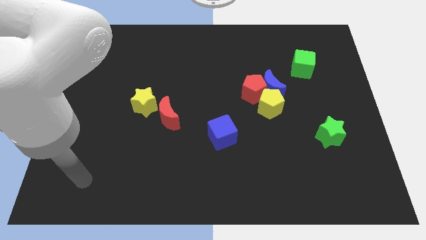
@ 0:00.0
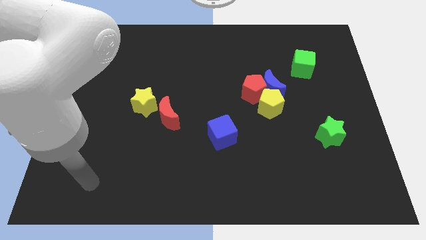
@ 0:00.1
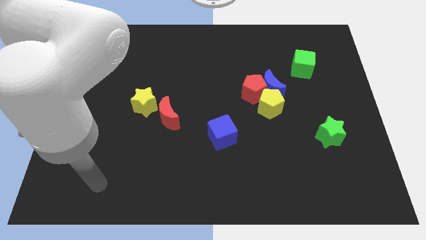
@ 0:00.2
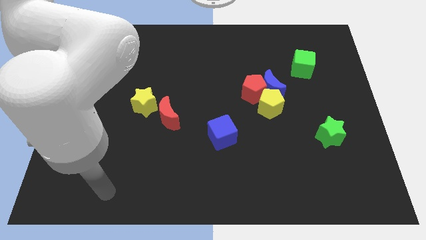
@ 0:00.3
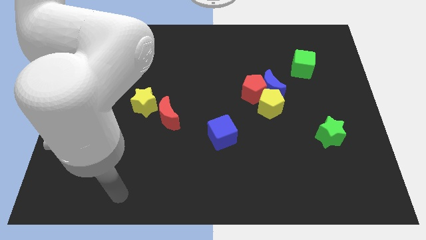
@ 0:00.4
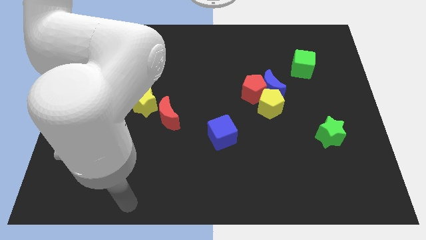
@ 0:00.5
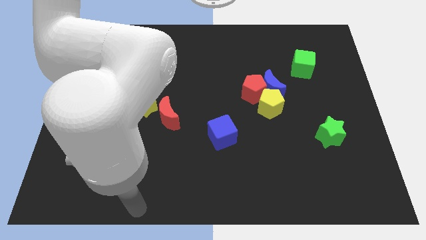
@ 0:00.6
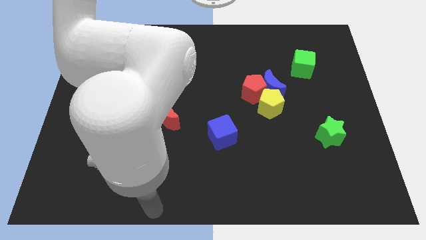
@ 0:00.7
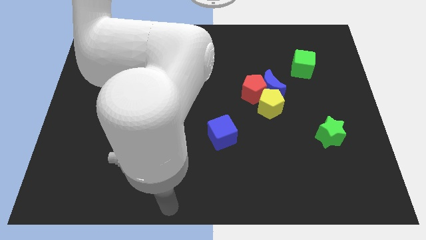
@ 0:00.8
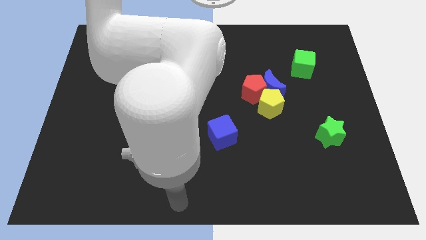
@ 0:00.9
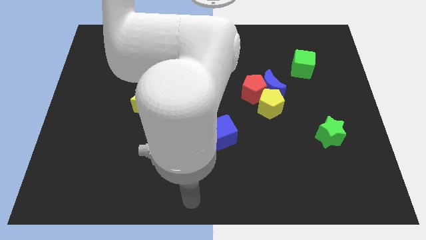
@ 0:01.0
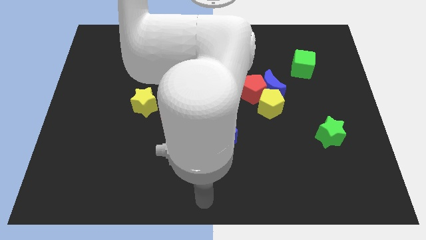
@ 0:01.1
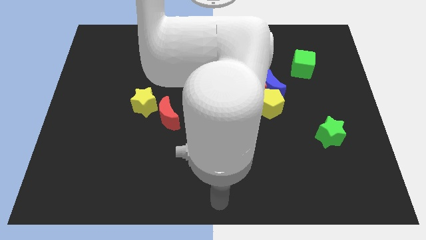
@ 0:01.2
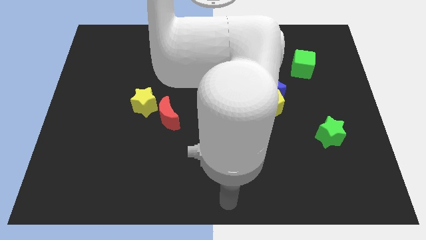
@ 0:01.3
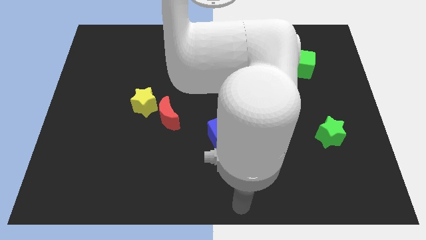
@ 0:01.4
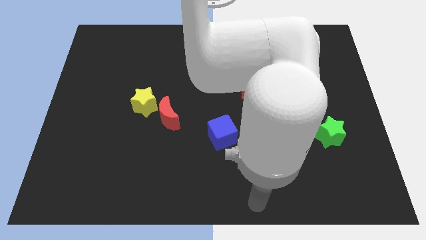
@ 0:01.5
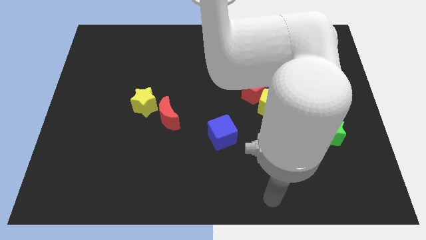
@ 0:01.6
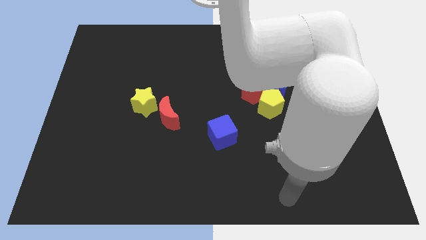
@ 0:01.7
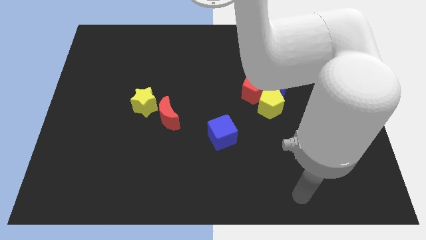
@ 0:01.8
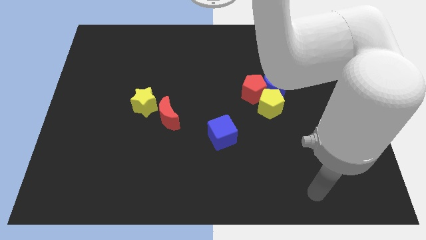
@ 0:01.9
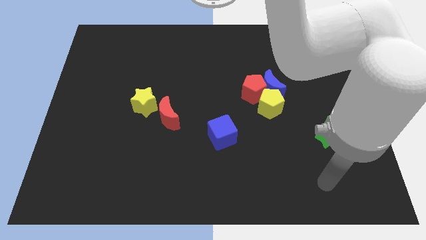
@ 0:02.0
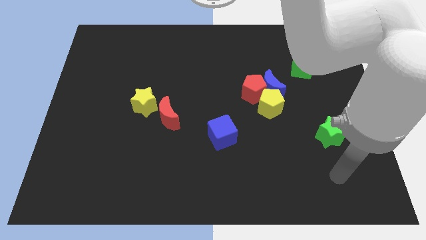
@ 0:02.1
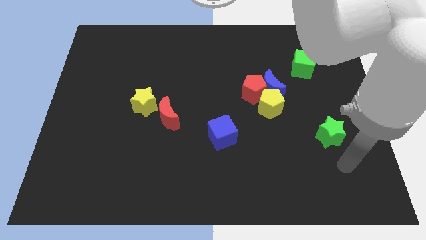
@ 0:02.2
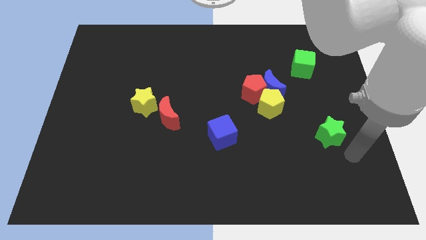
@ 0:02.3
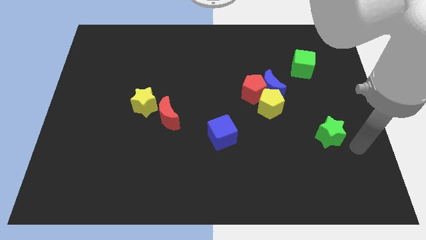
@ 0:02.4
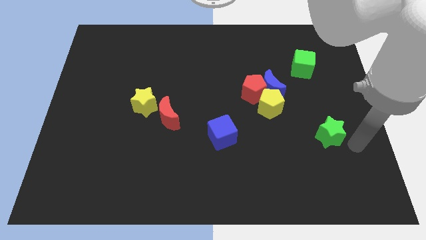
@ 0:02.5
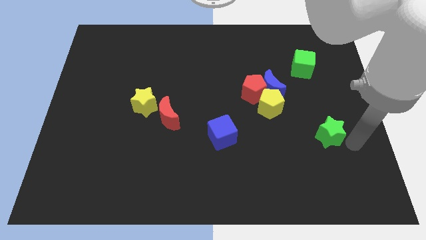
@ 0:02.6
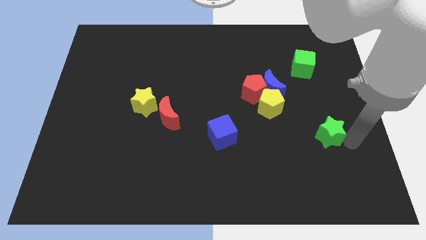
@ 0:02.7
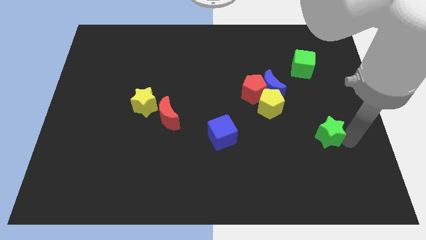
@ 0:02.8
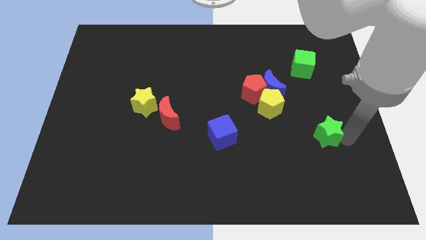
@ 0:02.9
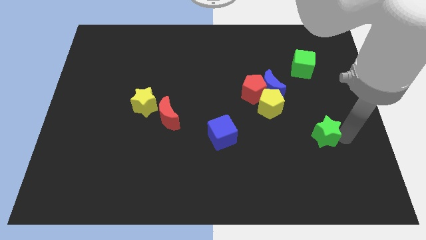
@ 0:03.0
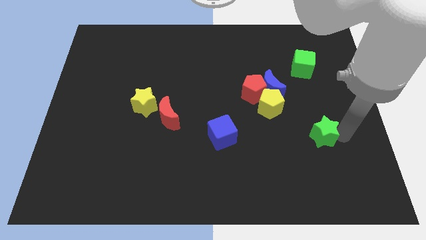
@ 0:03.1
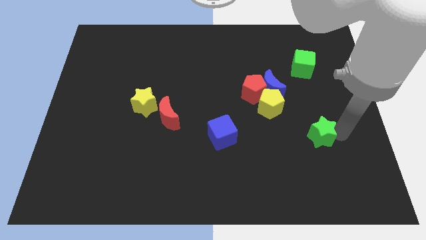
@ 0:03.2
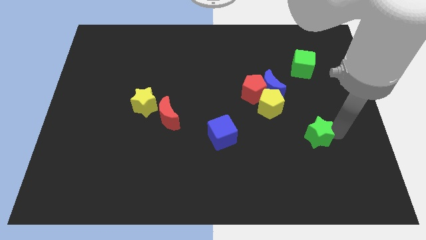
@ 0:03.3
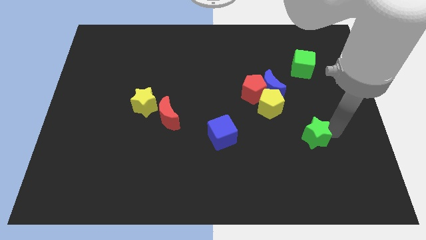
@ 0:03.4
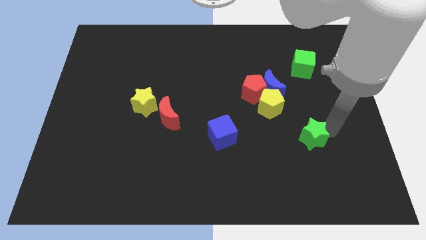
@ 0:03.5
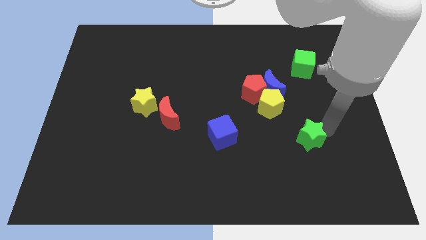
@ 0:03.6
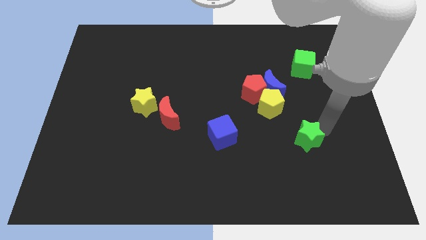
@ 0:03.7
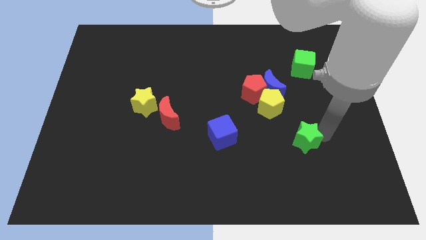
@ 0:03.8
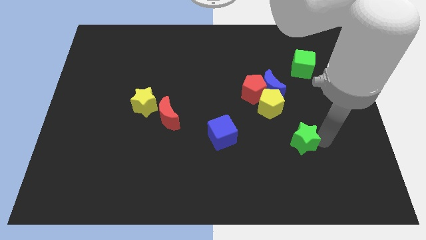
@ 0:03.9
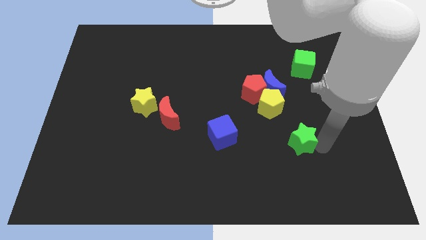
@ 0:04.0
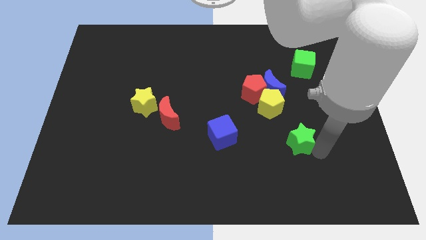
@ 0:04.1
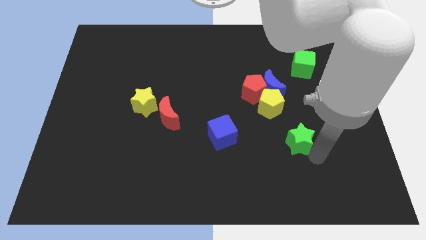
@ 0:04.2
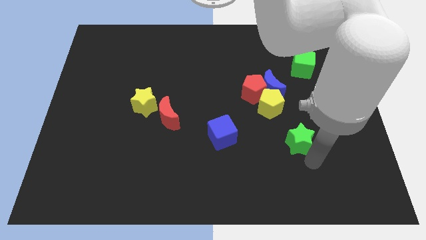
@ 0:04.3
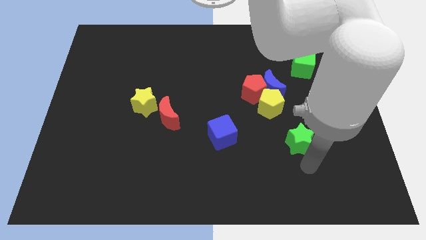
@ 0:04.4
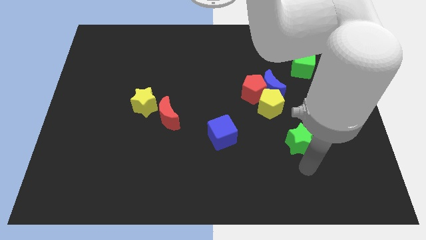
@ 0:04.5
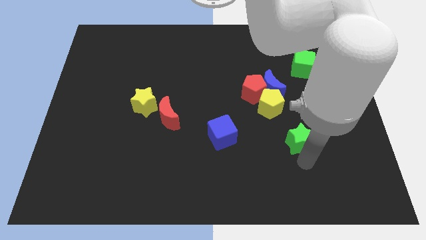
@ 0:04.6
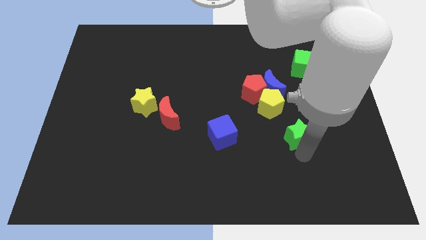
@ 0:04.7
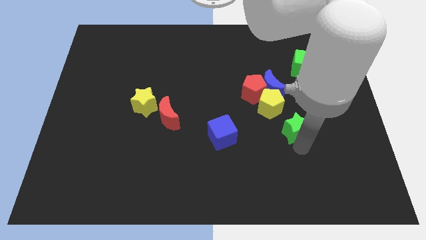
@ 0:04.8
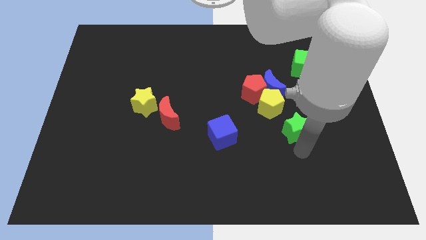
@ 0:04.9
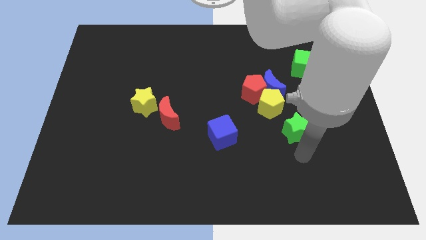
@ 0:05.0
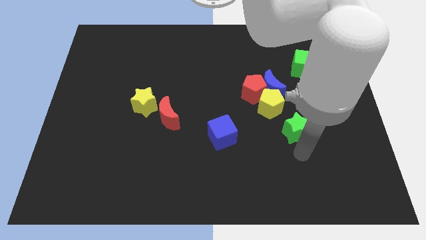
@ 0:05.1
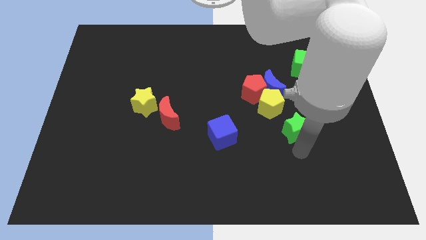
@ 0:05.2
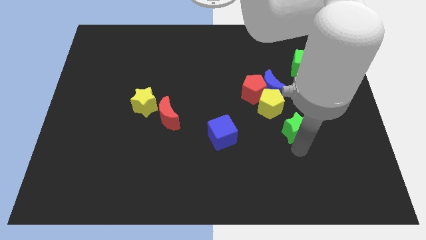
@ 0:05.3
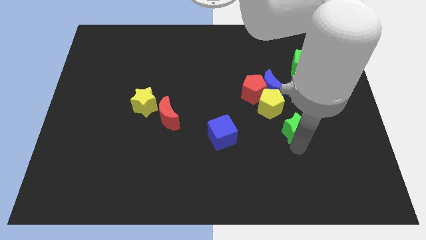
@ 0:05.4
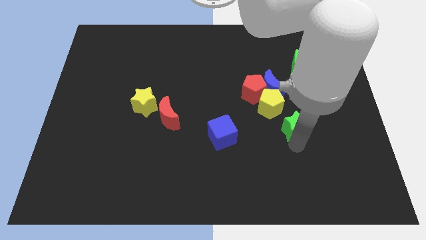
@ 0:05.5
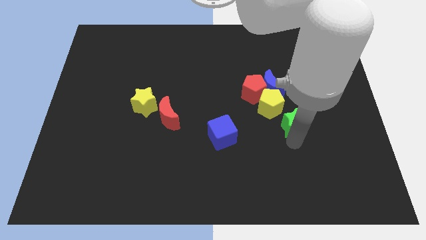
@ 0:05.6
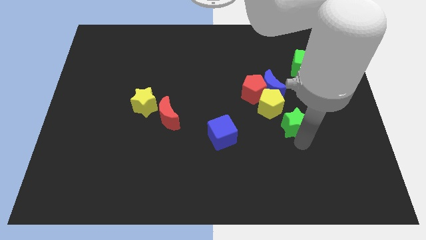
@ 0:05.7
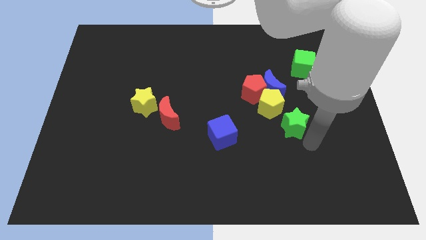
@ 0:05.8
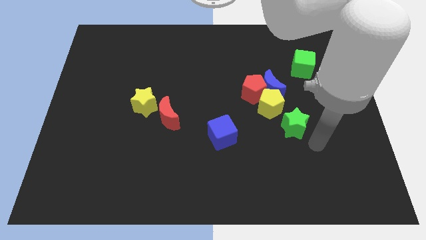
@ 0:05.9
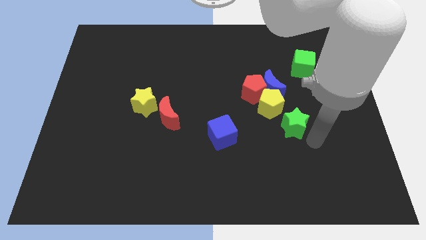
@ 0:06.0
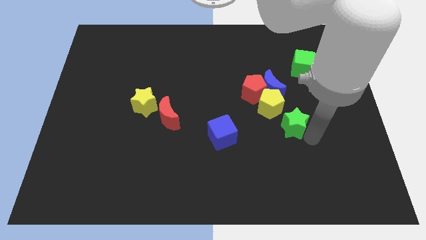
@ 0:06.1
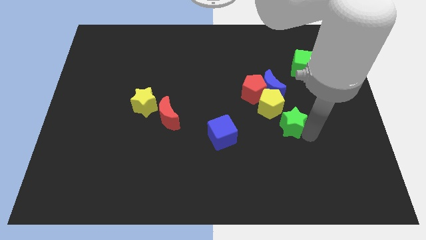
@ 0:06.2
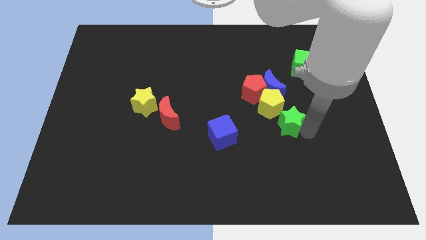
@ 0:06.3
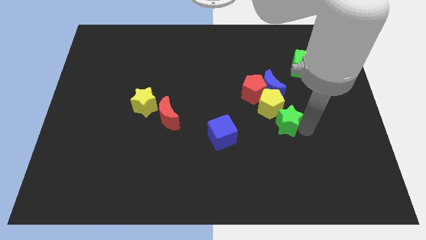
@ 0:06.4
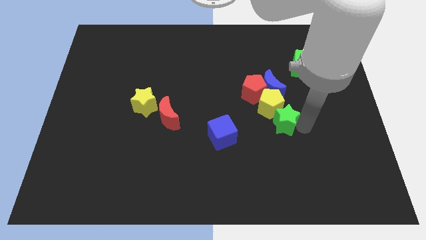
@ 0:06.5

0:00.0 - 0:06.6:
move the green star to the yellow pentagon

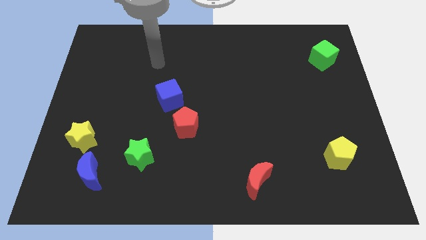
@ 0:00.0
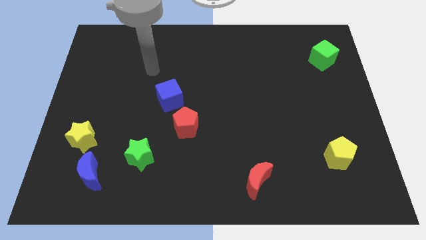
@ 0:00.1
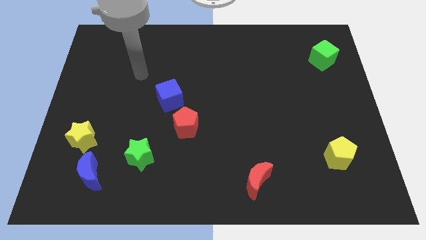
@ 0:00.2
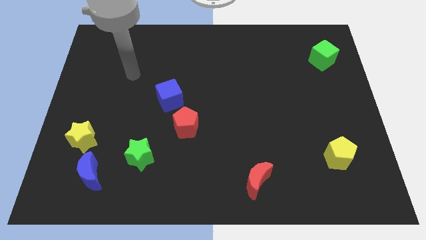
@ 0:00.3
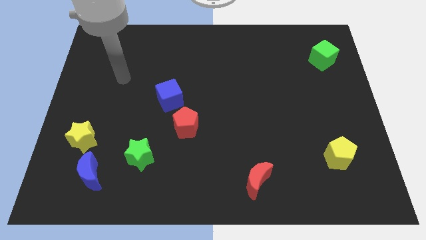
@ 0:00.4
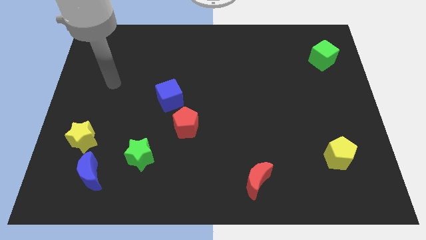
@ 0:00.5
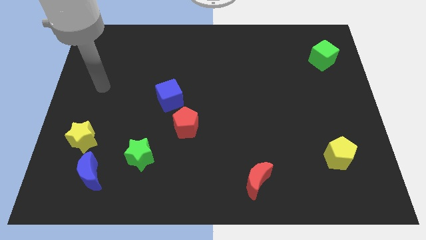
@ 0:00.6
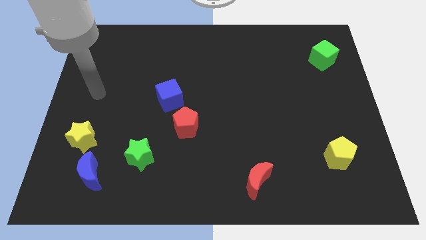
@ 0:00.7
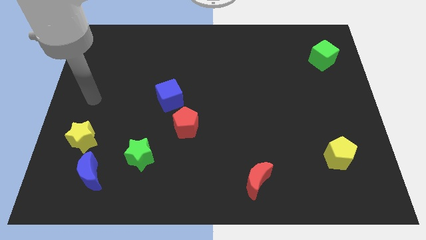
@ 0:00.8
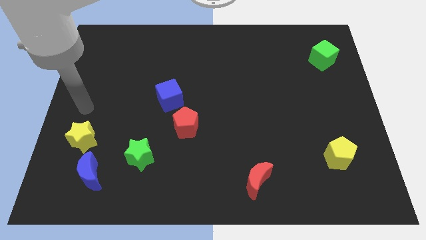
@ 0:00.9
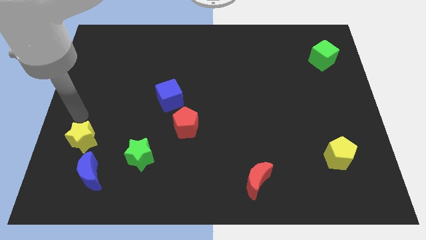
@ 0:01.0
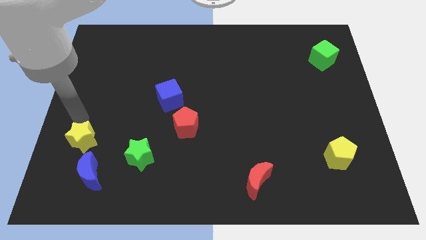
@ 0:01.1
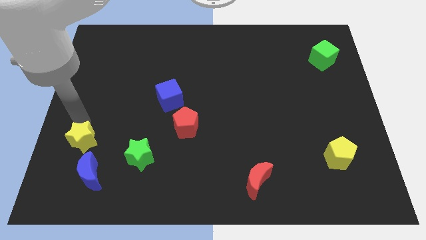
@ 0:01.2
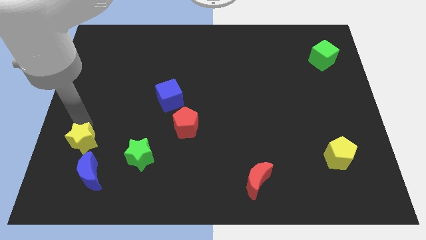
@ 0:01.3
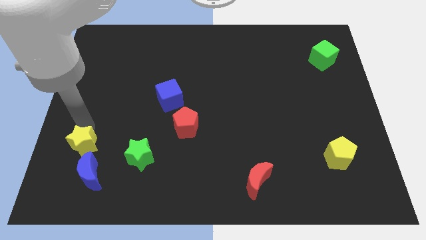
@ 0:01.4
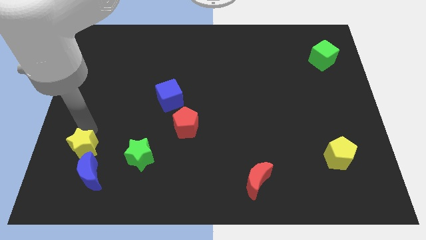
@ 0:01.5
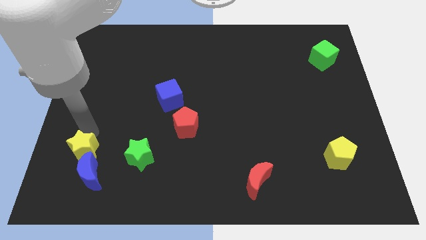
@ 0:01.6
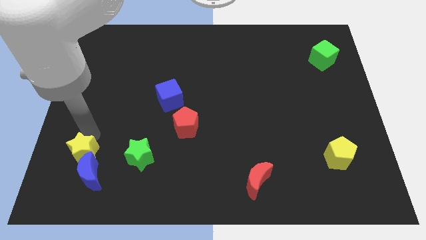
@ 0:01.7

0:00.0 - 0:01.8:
slide the yellow star towards the blue moon
